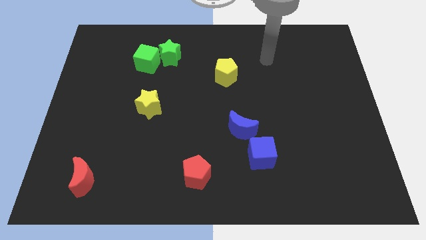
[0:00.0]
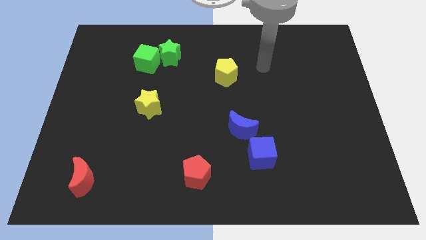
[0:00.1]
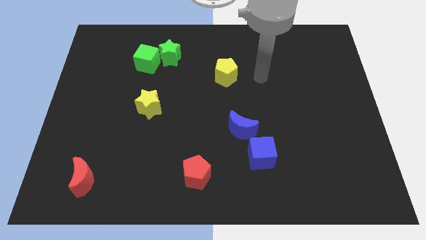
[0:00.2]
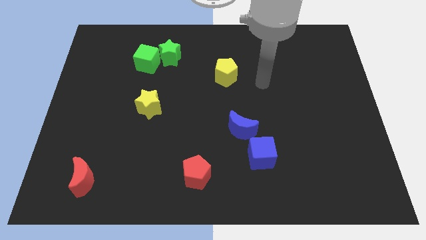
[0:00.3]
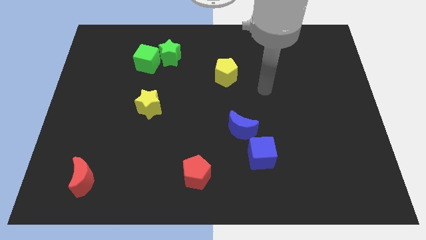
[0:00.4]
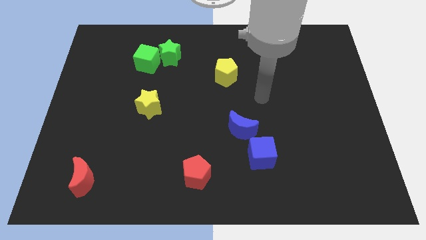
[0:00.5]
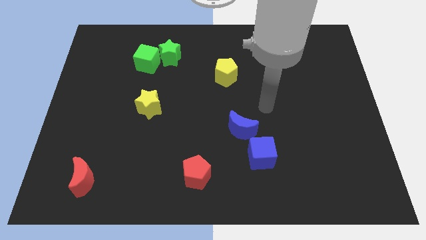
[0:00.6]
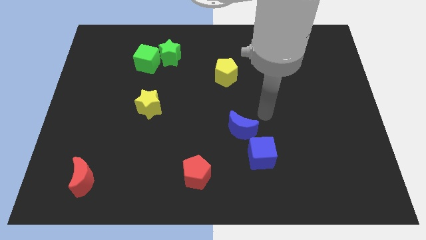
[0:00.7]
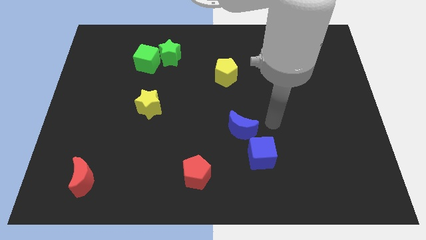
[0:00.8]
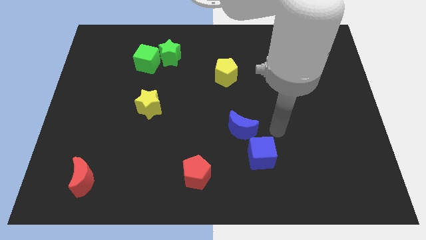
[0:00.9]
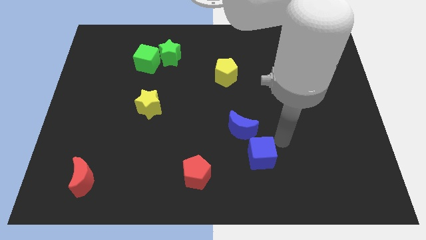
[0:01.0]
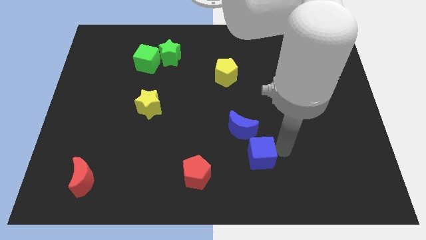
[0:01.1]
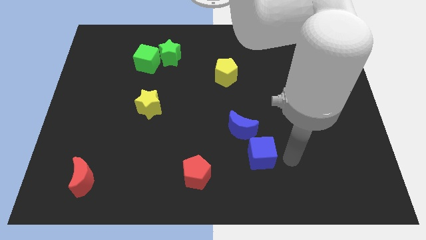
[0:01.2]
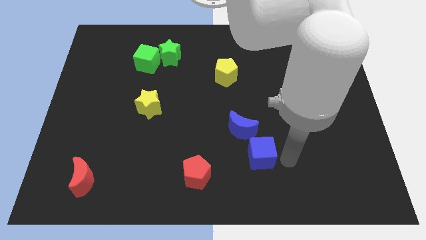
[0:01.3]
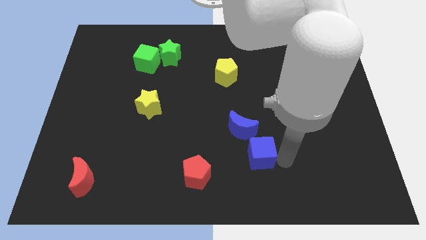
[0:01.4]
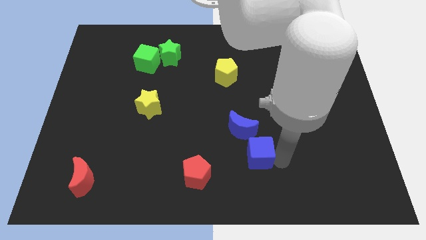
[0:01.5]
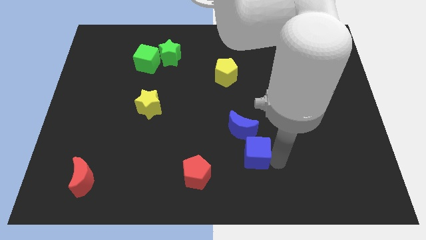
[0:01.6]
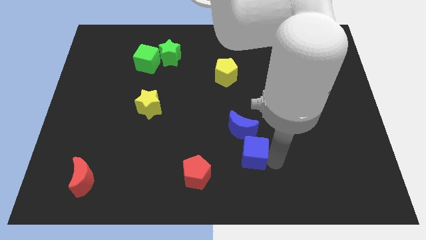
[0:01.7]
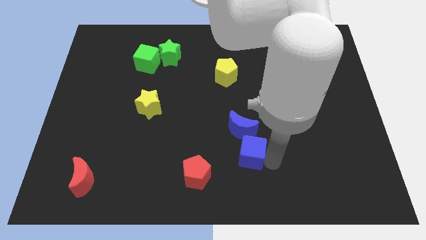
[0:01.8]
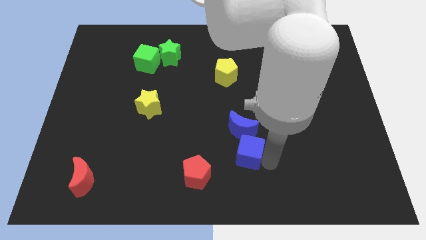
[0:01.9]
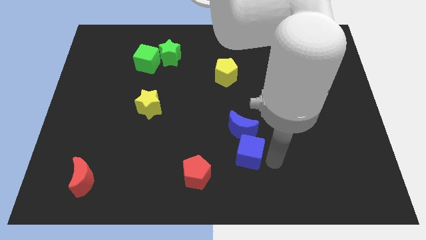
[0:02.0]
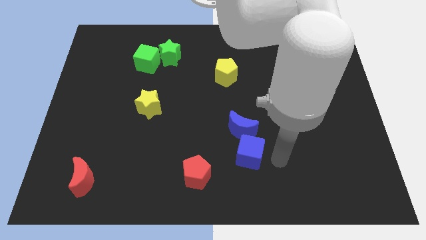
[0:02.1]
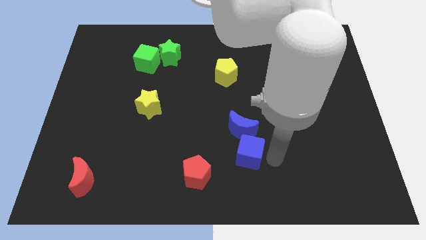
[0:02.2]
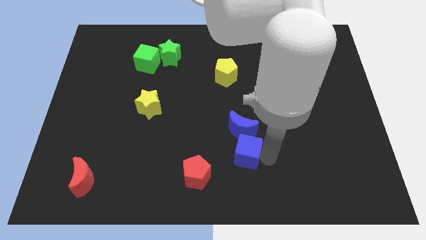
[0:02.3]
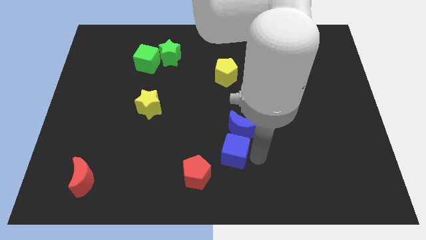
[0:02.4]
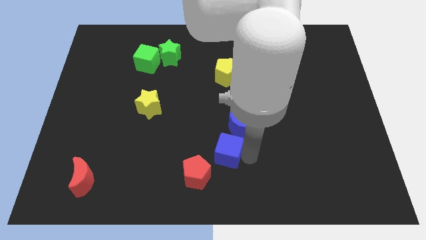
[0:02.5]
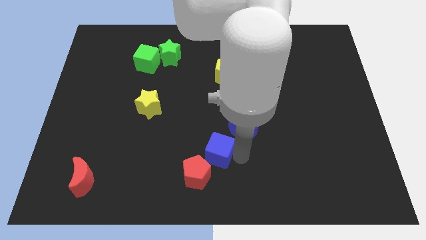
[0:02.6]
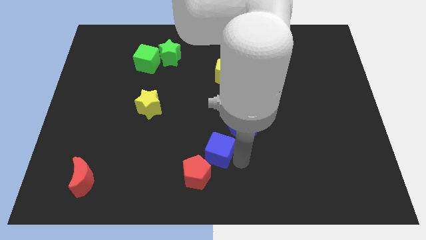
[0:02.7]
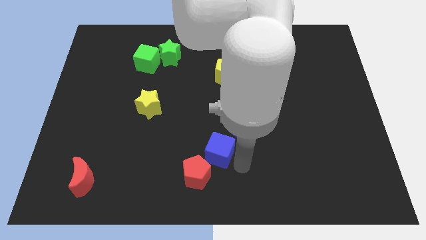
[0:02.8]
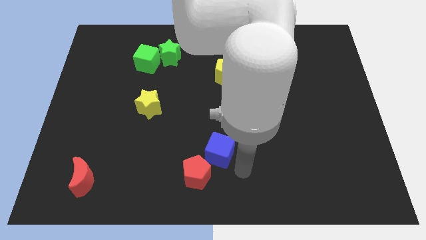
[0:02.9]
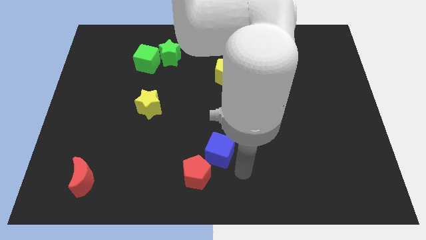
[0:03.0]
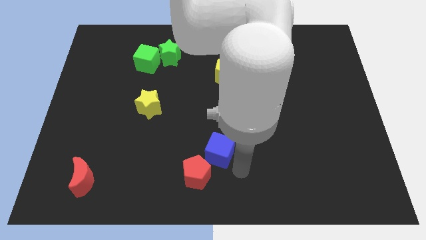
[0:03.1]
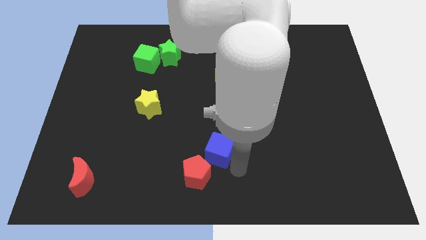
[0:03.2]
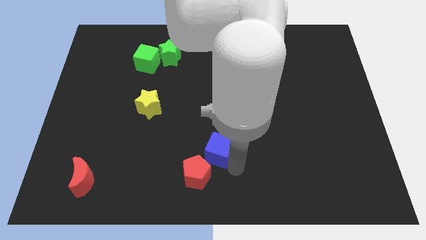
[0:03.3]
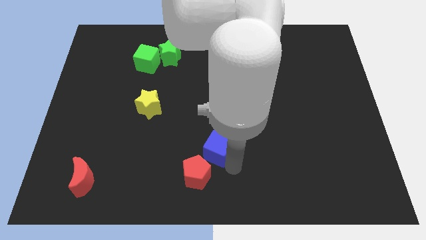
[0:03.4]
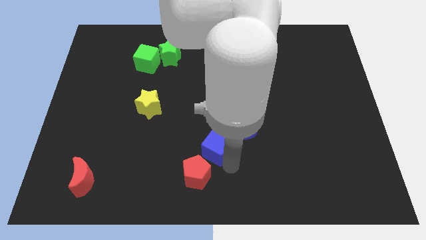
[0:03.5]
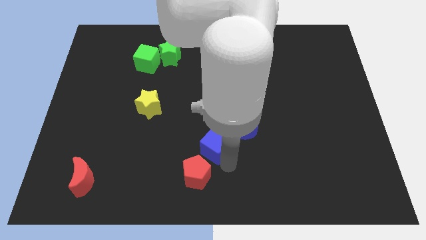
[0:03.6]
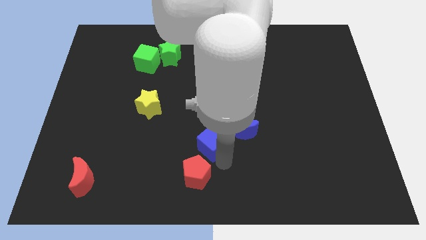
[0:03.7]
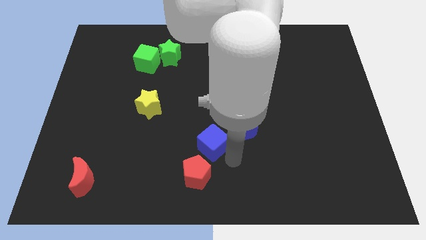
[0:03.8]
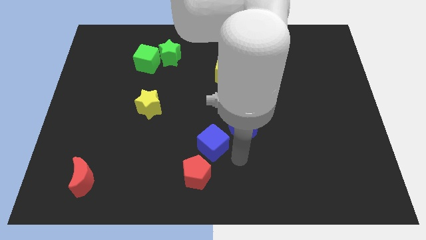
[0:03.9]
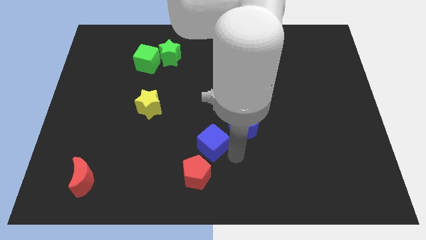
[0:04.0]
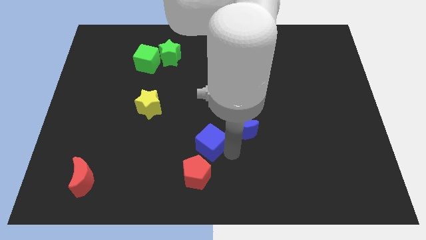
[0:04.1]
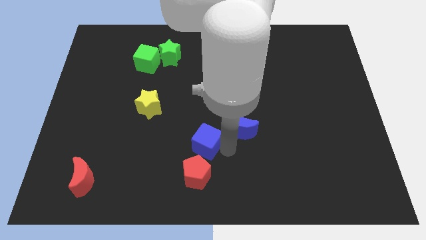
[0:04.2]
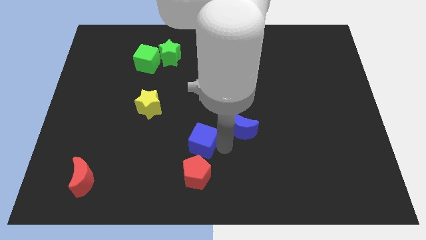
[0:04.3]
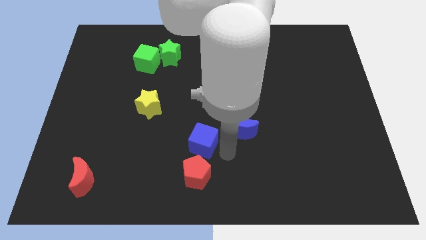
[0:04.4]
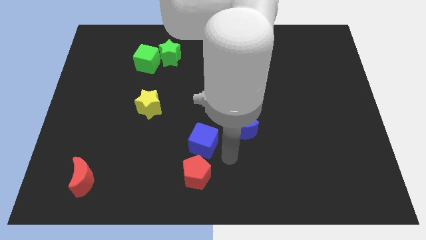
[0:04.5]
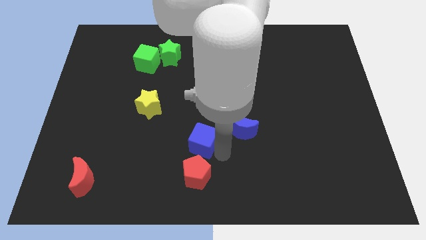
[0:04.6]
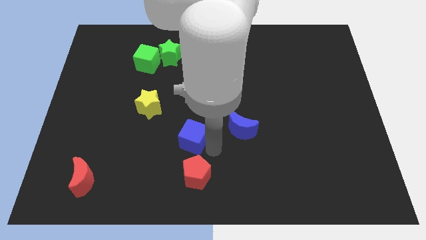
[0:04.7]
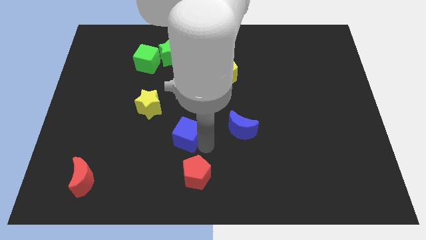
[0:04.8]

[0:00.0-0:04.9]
push the blue cube to the bottom right side of the yellow star

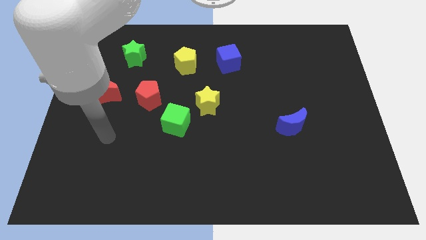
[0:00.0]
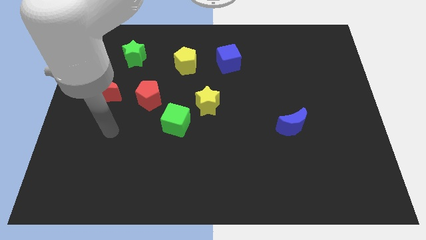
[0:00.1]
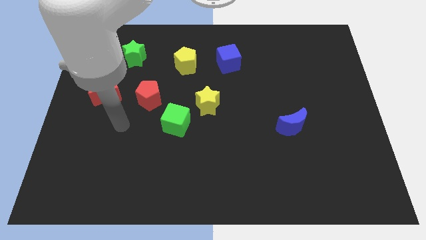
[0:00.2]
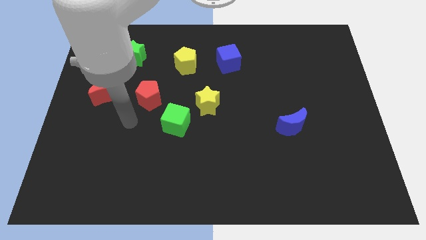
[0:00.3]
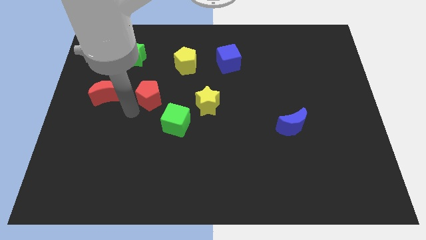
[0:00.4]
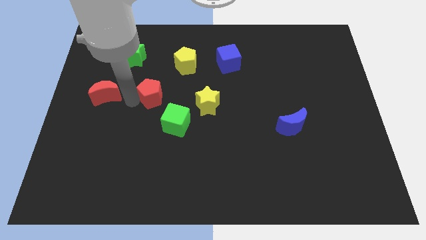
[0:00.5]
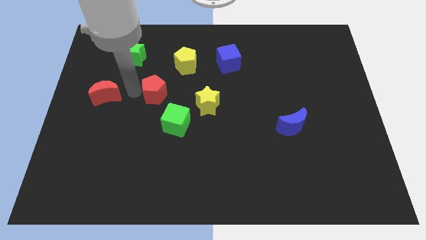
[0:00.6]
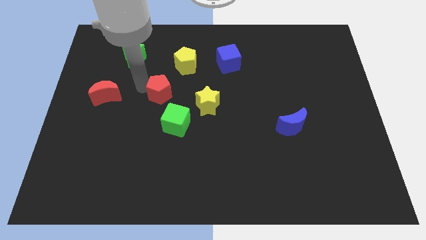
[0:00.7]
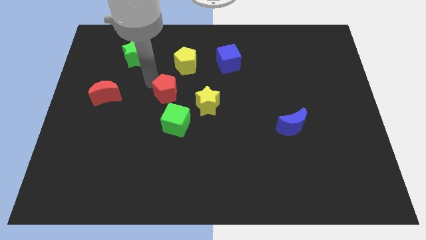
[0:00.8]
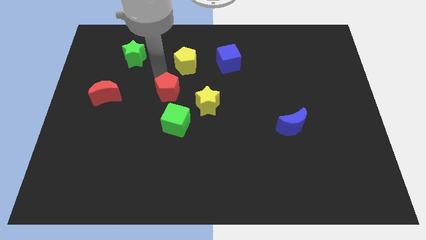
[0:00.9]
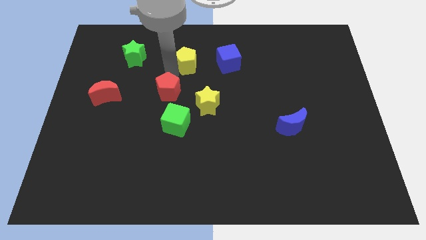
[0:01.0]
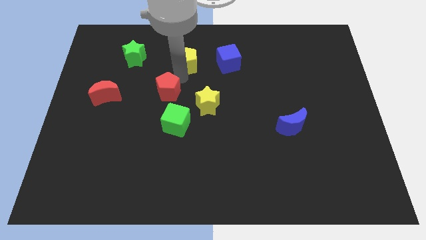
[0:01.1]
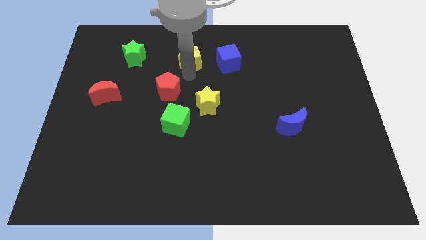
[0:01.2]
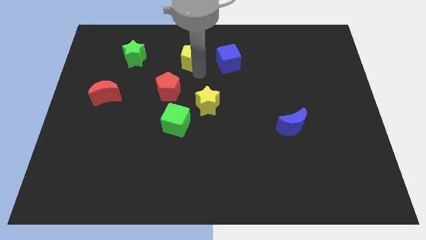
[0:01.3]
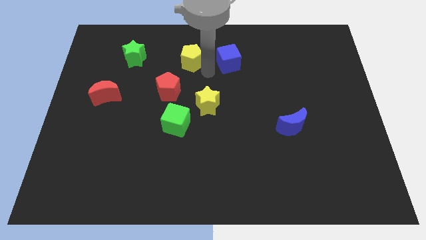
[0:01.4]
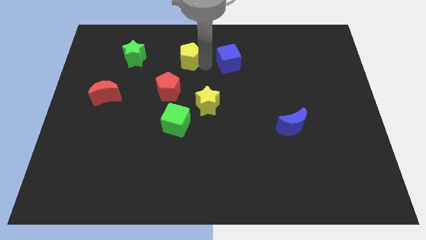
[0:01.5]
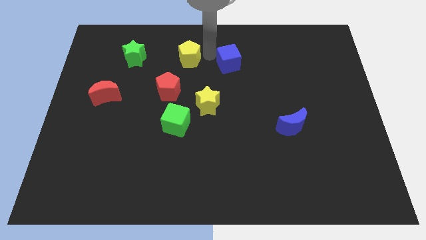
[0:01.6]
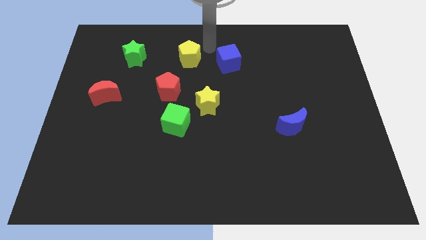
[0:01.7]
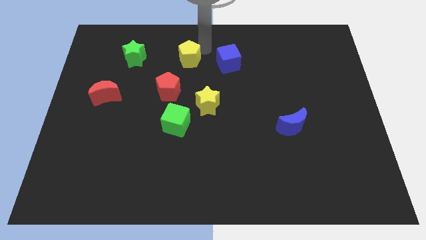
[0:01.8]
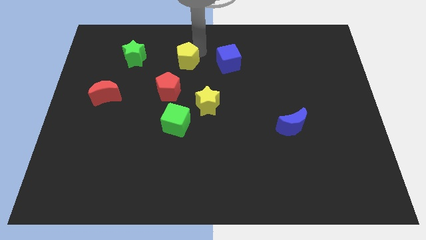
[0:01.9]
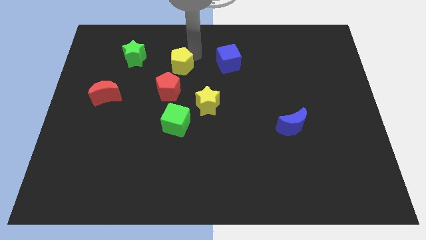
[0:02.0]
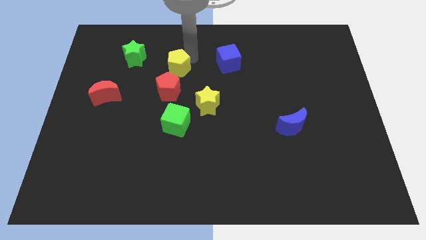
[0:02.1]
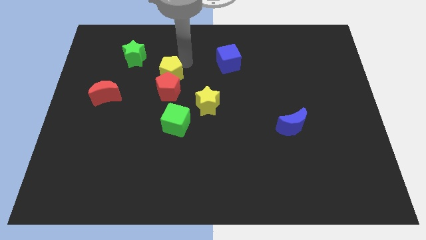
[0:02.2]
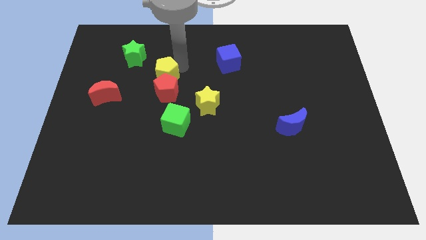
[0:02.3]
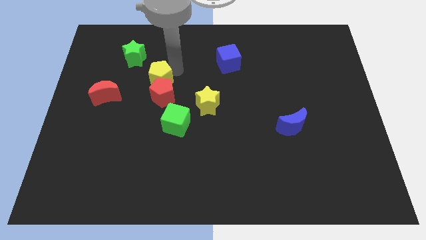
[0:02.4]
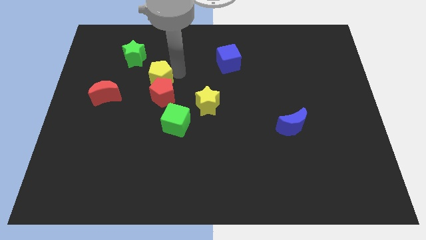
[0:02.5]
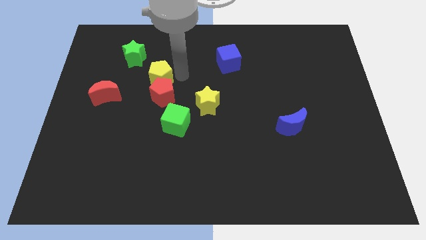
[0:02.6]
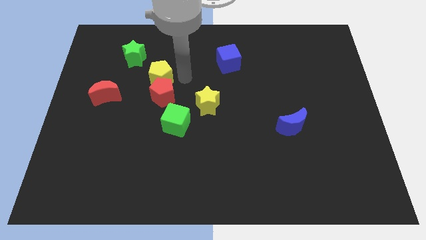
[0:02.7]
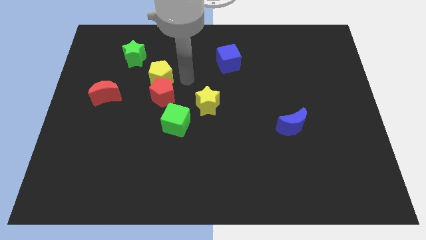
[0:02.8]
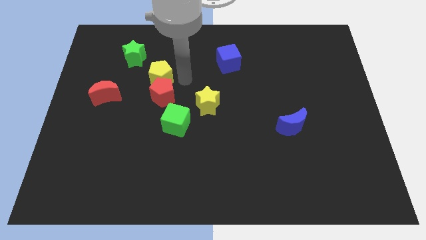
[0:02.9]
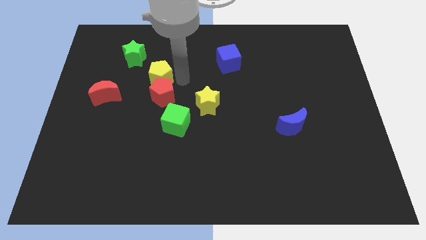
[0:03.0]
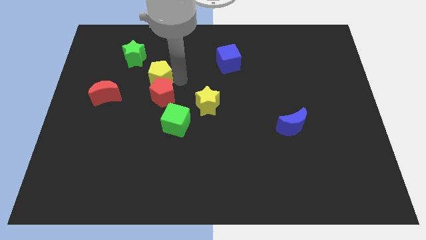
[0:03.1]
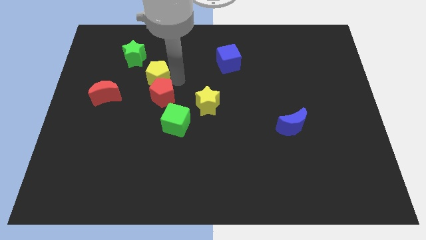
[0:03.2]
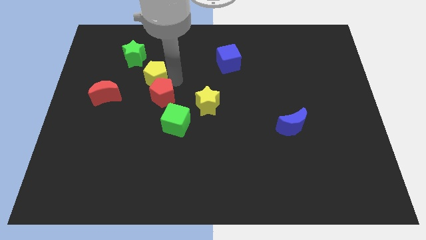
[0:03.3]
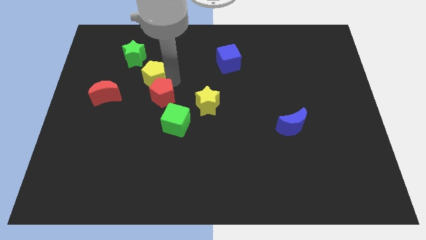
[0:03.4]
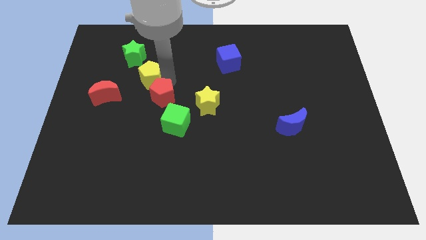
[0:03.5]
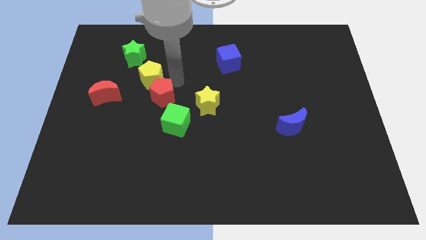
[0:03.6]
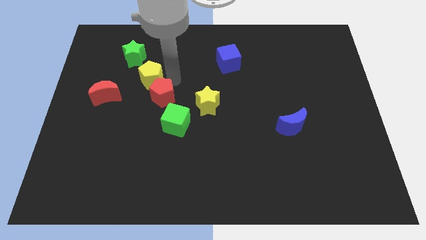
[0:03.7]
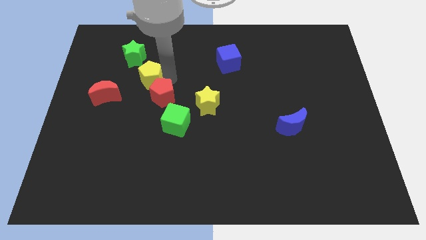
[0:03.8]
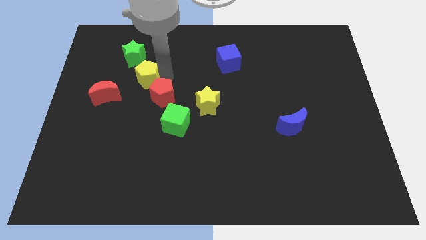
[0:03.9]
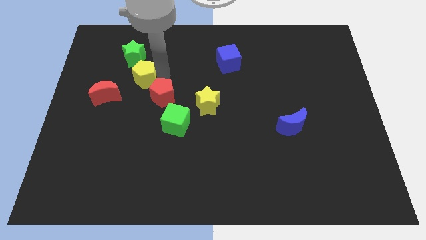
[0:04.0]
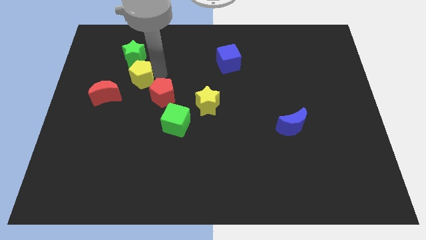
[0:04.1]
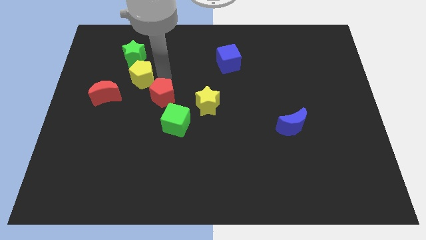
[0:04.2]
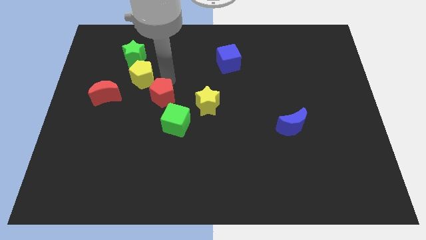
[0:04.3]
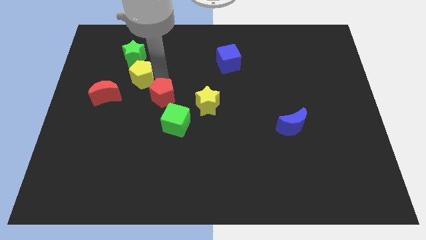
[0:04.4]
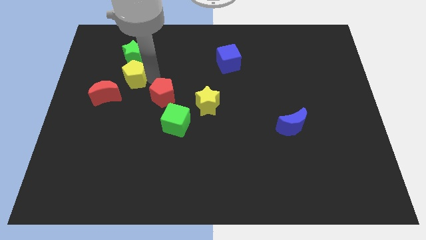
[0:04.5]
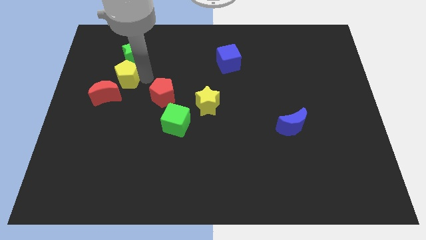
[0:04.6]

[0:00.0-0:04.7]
move the yellow pentagon to the bottom left of the green star
